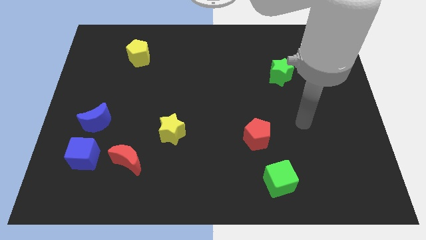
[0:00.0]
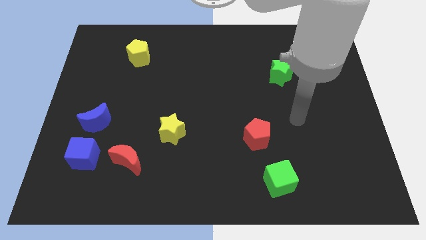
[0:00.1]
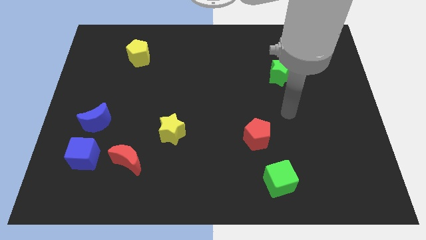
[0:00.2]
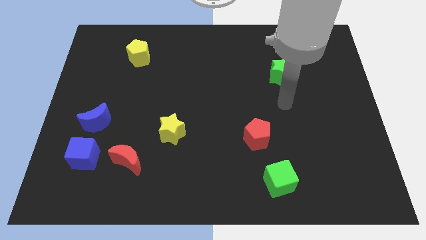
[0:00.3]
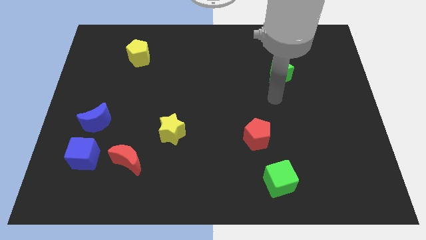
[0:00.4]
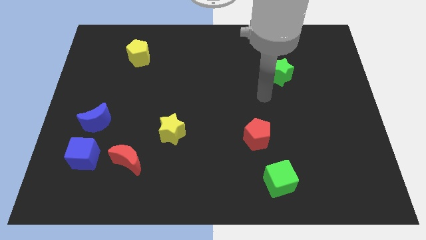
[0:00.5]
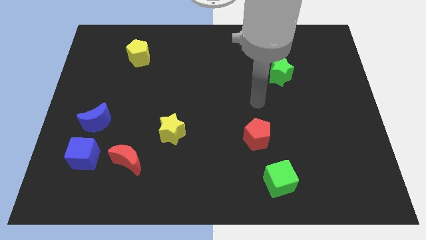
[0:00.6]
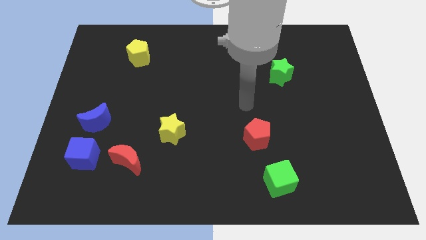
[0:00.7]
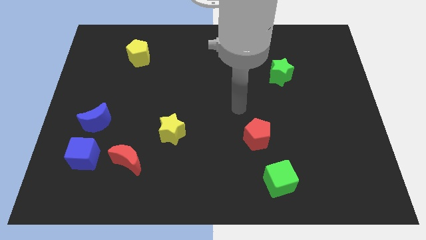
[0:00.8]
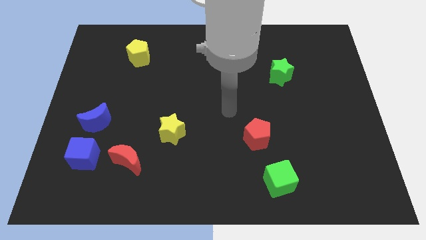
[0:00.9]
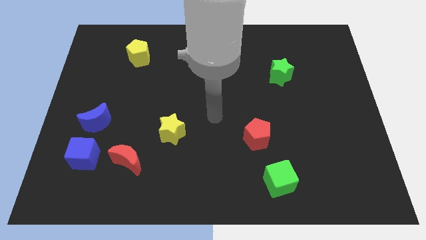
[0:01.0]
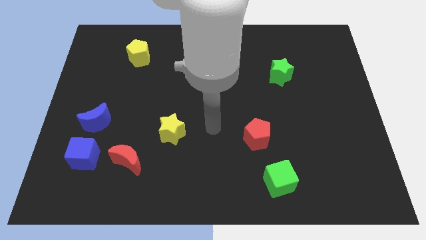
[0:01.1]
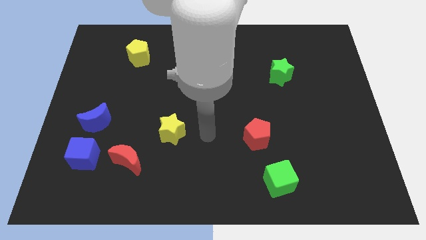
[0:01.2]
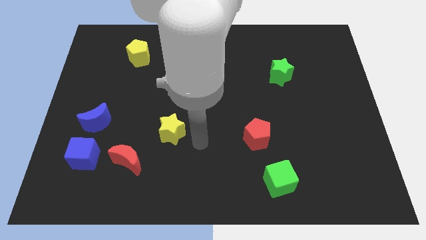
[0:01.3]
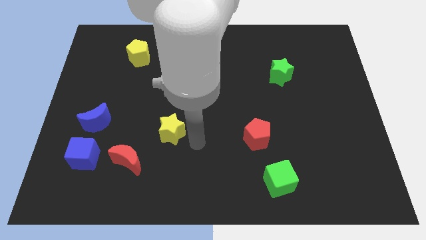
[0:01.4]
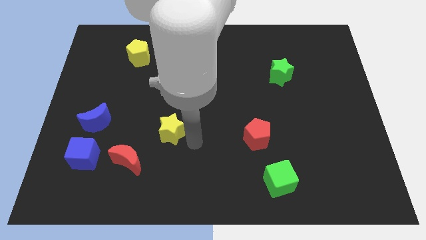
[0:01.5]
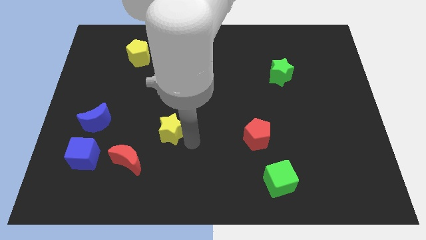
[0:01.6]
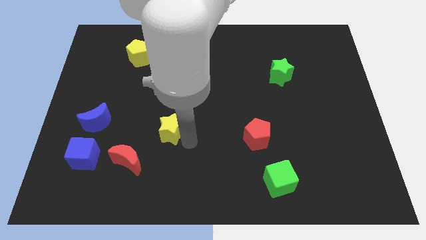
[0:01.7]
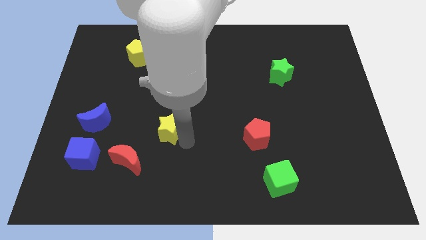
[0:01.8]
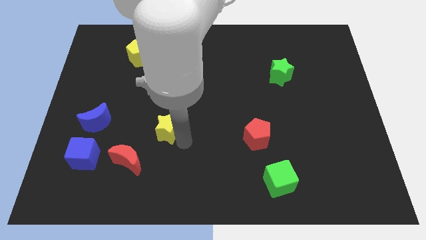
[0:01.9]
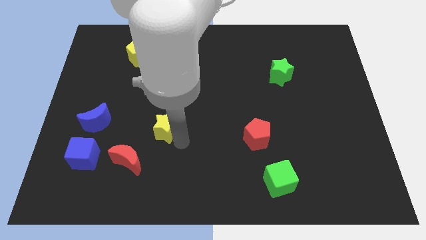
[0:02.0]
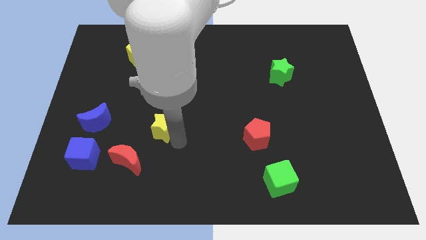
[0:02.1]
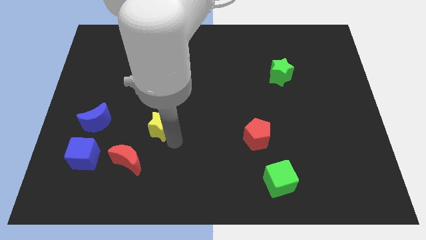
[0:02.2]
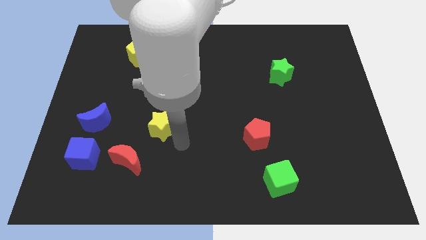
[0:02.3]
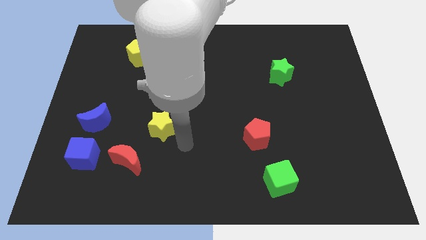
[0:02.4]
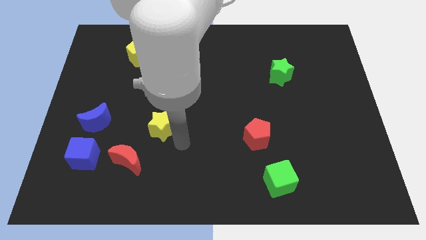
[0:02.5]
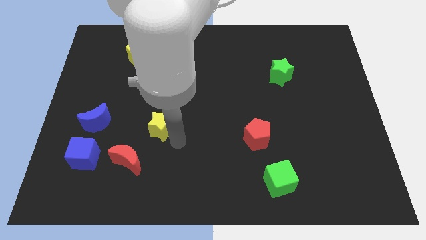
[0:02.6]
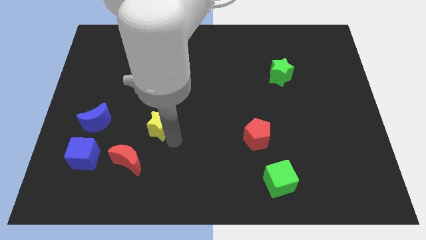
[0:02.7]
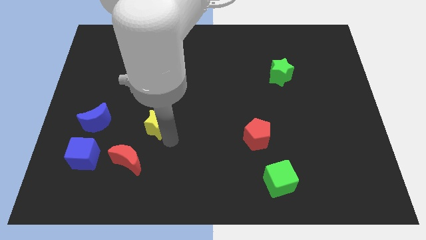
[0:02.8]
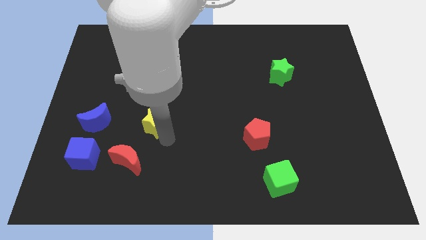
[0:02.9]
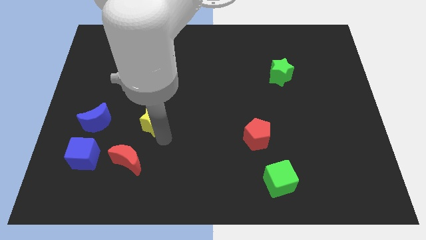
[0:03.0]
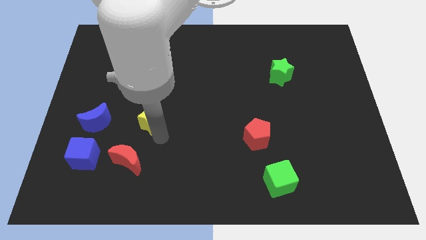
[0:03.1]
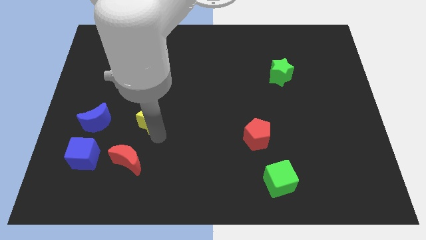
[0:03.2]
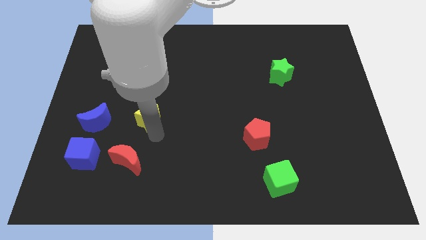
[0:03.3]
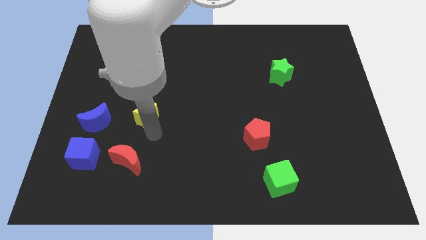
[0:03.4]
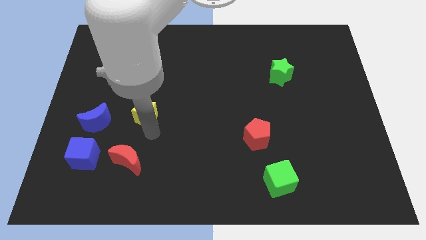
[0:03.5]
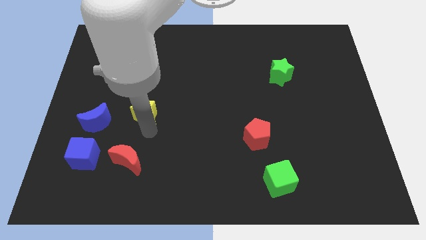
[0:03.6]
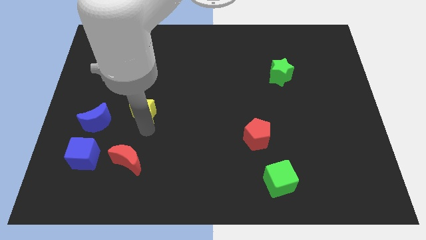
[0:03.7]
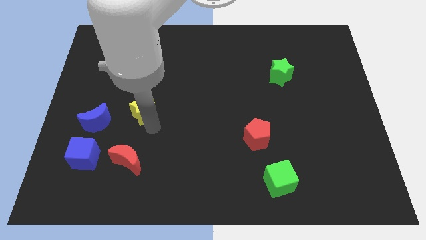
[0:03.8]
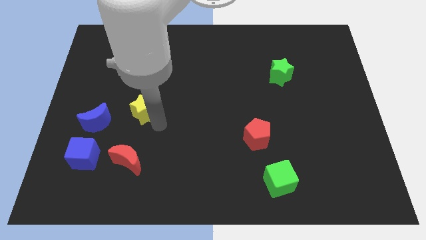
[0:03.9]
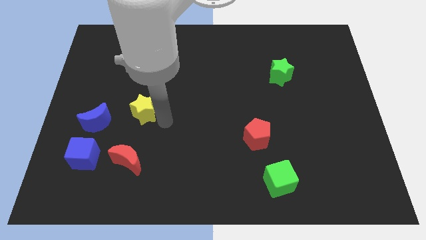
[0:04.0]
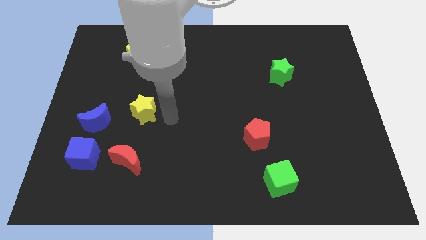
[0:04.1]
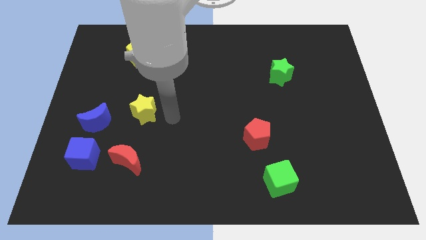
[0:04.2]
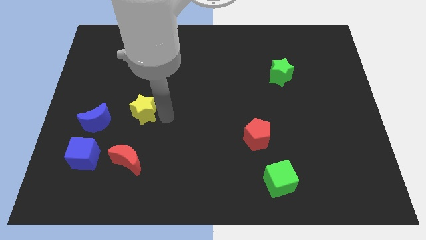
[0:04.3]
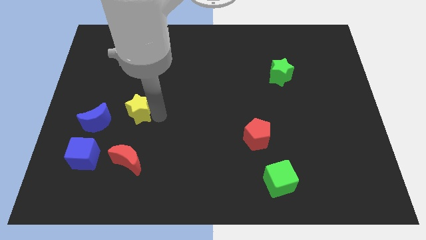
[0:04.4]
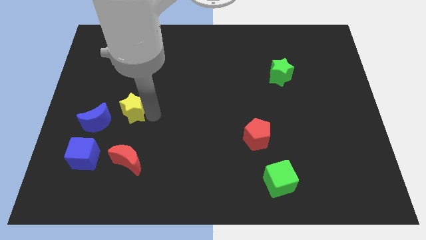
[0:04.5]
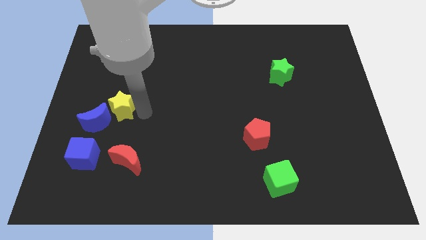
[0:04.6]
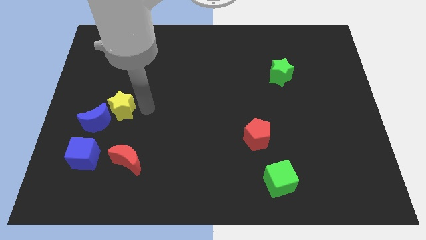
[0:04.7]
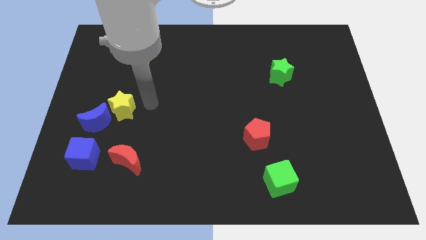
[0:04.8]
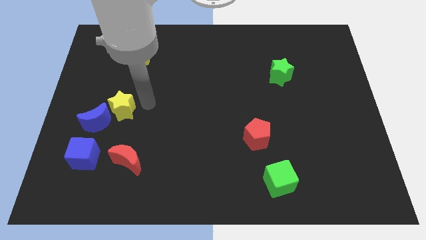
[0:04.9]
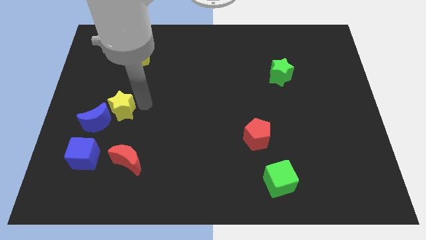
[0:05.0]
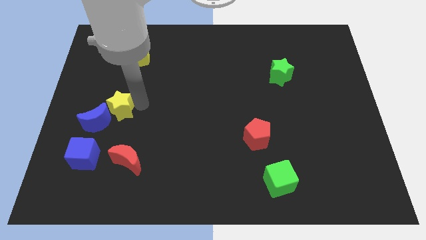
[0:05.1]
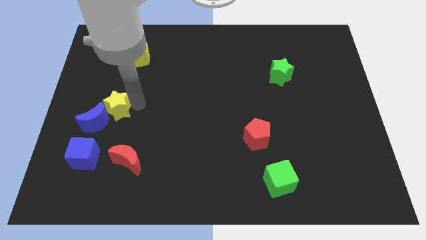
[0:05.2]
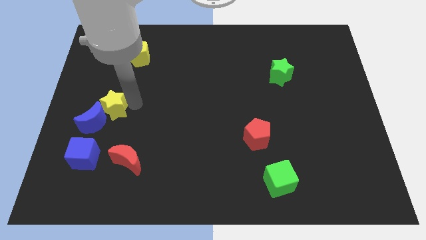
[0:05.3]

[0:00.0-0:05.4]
push the yellow star to the top of the blue cube

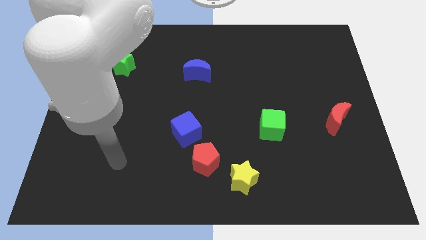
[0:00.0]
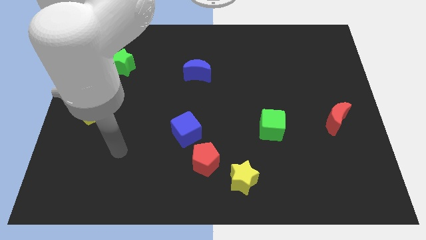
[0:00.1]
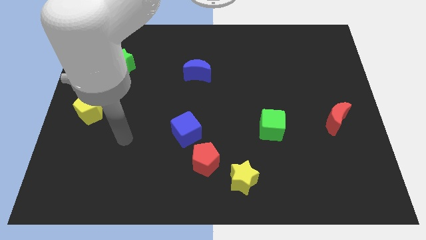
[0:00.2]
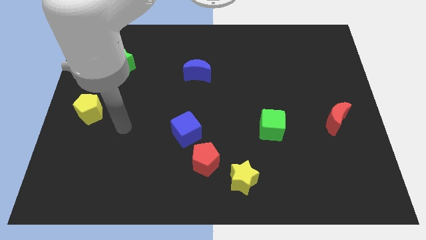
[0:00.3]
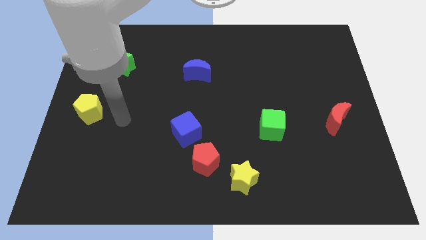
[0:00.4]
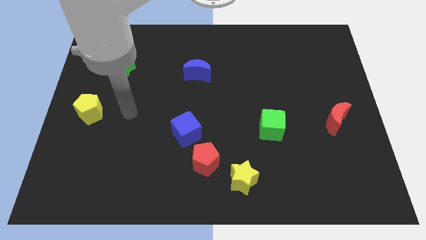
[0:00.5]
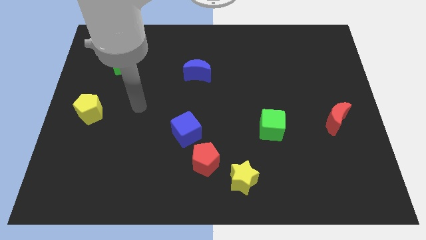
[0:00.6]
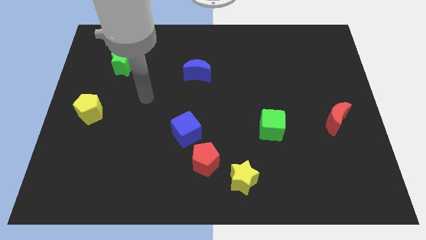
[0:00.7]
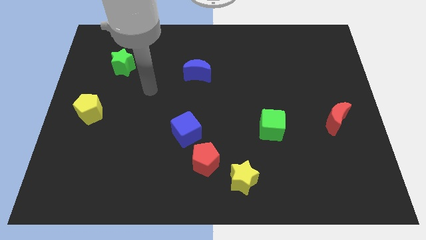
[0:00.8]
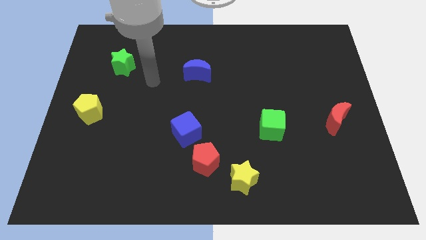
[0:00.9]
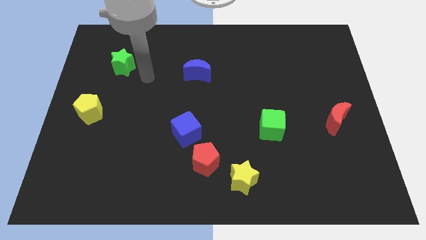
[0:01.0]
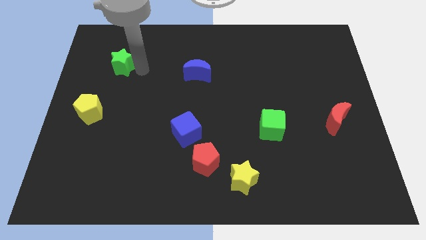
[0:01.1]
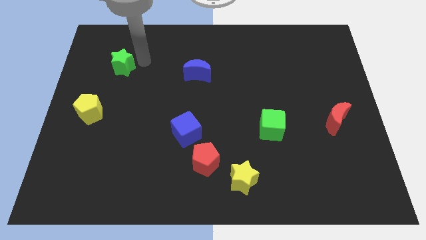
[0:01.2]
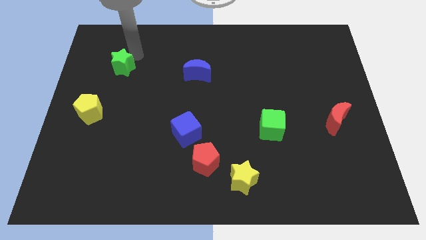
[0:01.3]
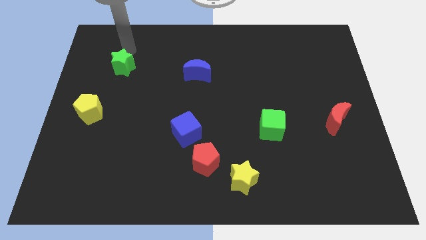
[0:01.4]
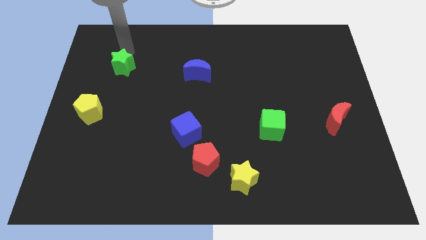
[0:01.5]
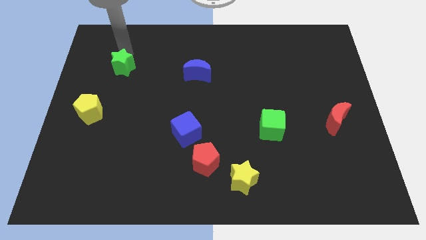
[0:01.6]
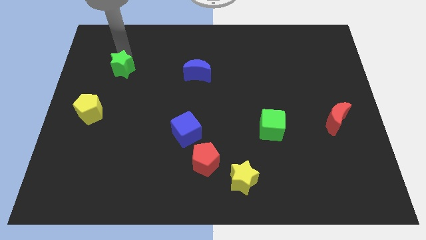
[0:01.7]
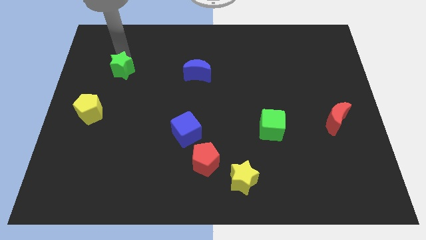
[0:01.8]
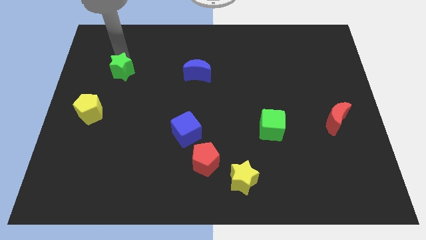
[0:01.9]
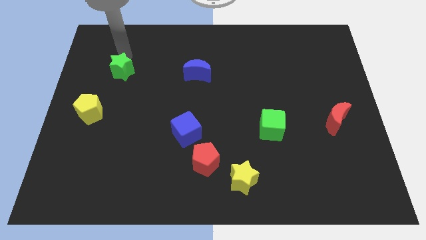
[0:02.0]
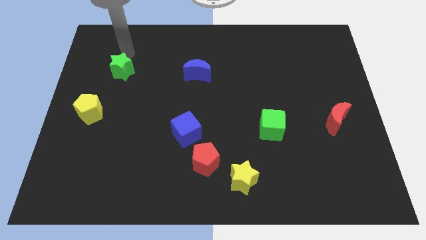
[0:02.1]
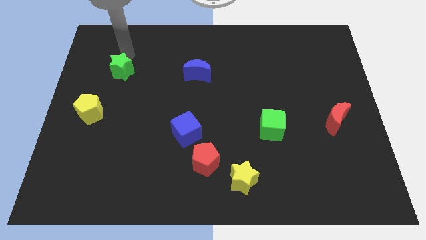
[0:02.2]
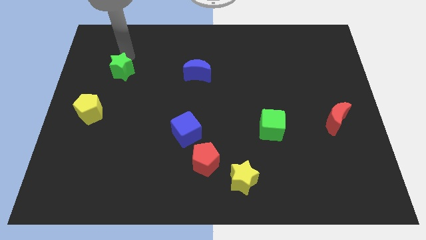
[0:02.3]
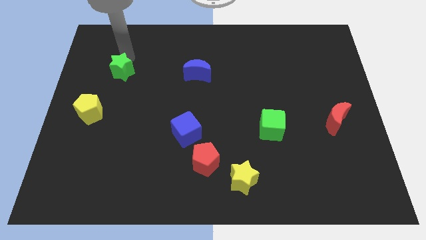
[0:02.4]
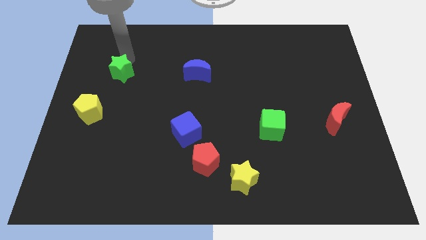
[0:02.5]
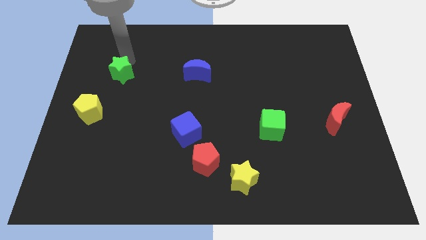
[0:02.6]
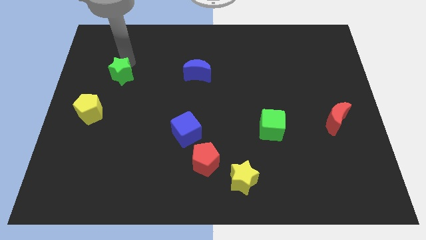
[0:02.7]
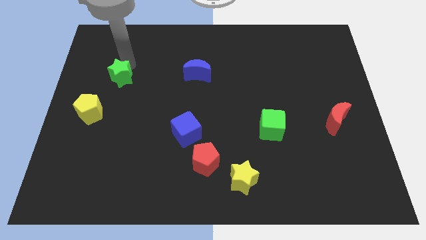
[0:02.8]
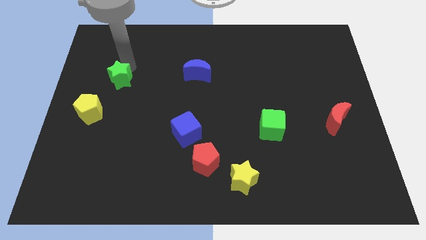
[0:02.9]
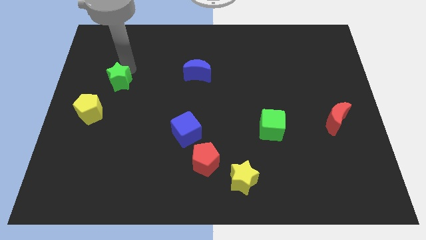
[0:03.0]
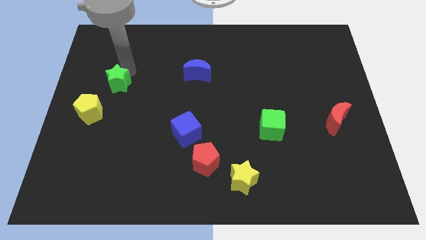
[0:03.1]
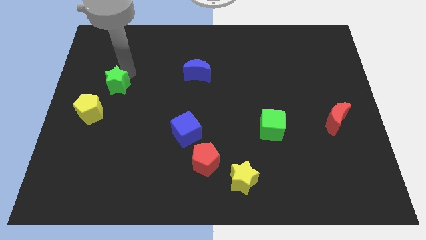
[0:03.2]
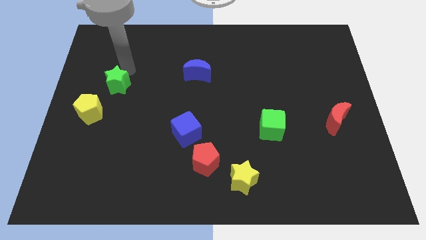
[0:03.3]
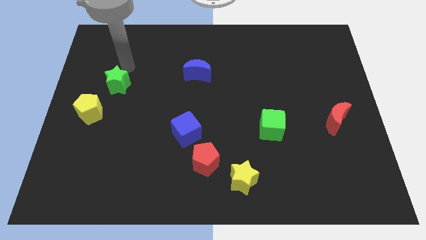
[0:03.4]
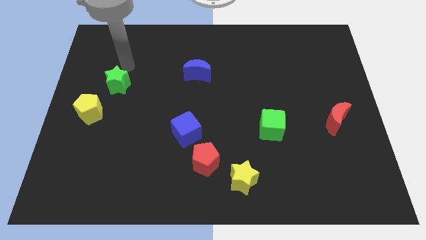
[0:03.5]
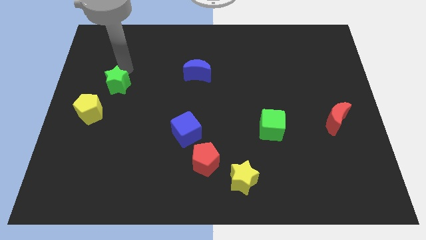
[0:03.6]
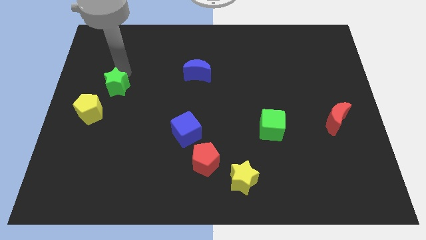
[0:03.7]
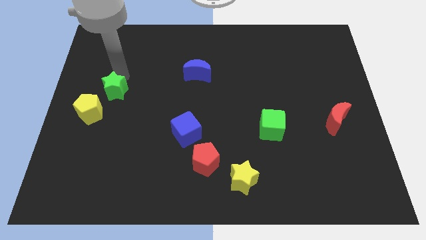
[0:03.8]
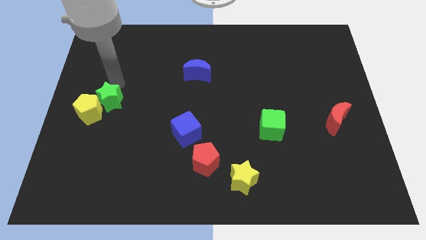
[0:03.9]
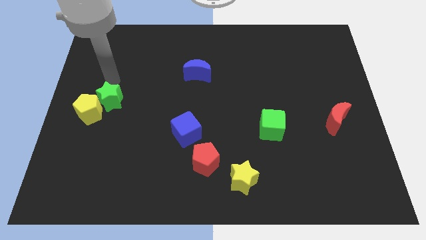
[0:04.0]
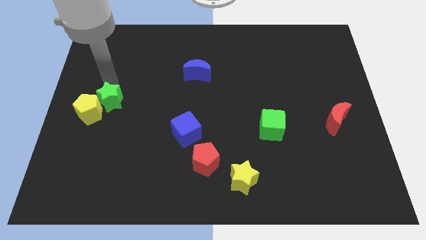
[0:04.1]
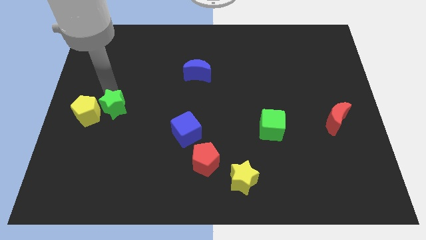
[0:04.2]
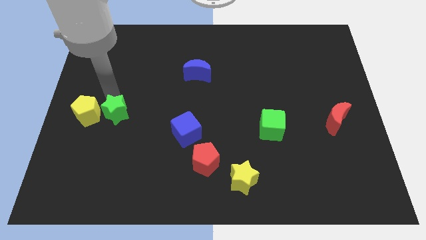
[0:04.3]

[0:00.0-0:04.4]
move the green star to the bottom right side of the yellow pentagon
